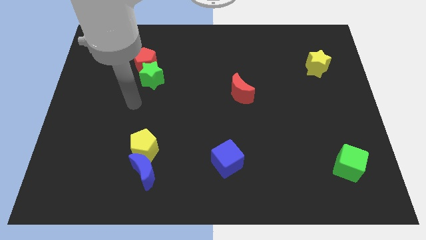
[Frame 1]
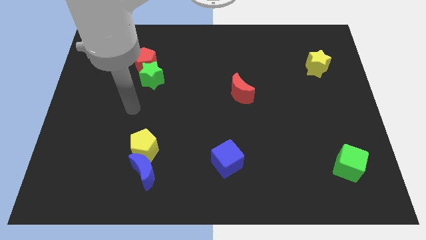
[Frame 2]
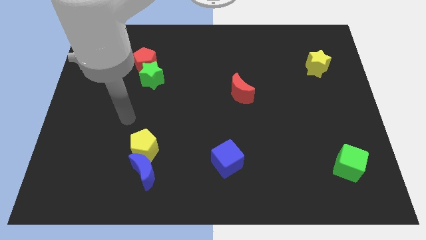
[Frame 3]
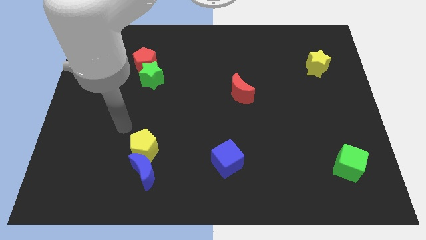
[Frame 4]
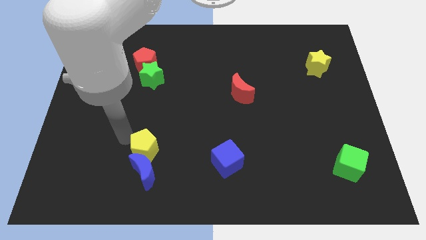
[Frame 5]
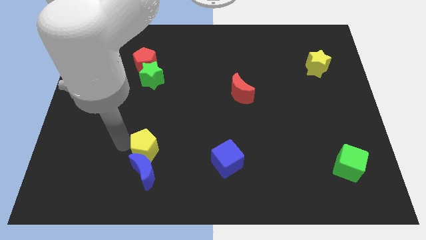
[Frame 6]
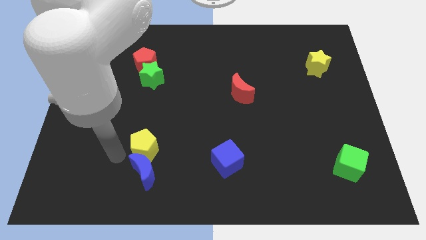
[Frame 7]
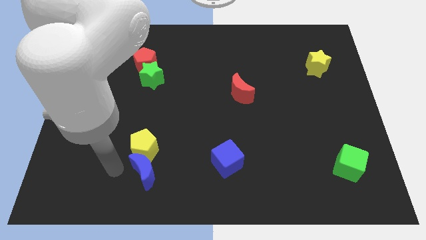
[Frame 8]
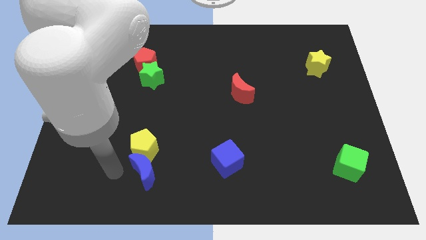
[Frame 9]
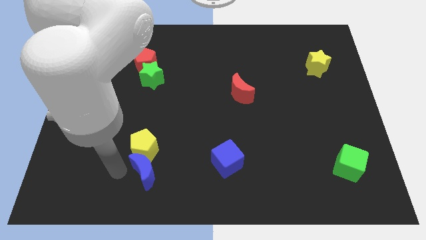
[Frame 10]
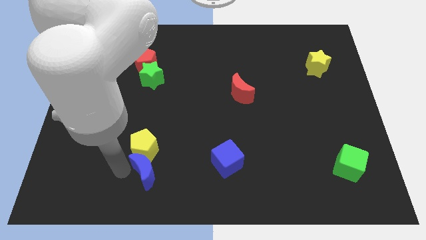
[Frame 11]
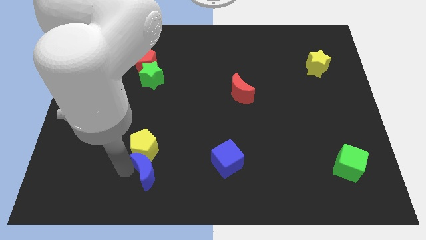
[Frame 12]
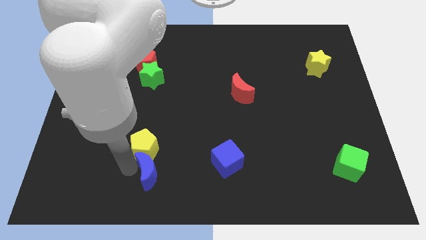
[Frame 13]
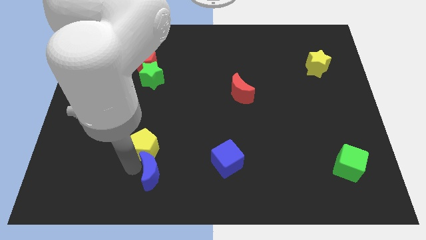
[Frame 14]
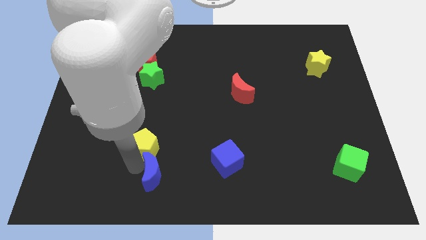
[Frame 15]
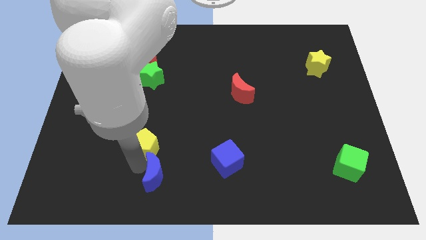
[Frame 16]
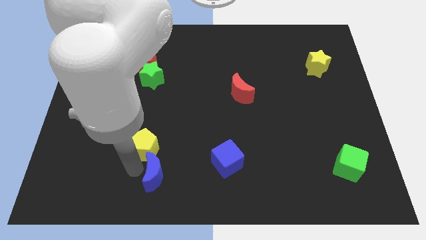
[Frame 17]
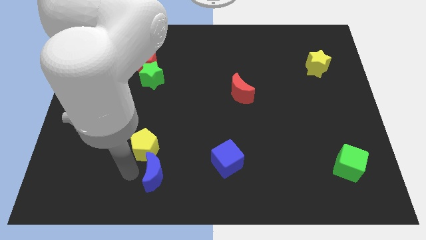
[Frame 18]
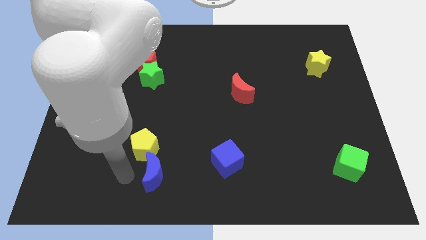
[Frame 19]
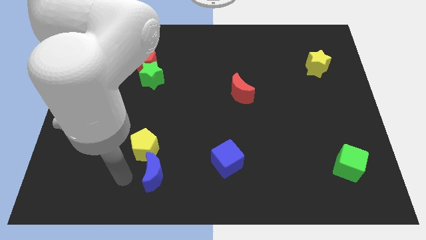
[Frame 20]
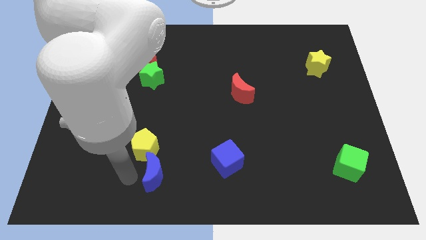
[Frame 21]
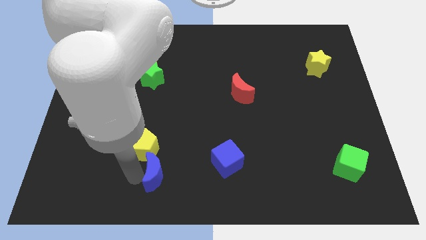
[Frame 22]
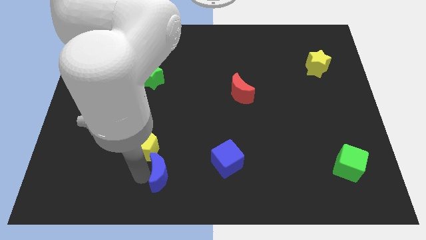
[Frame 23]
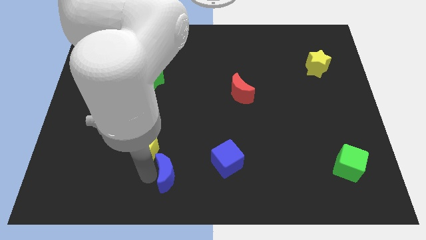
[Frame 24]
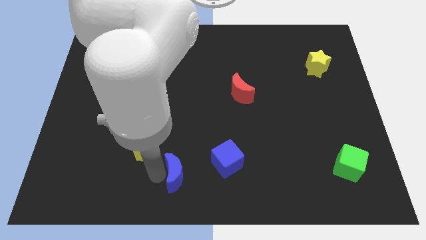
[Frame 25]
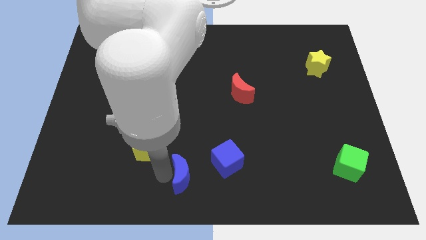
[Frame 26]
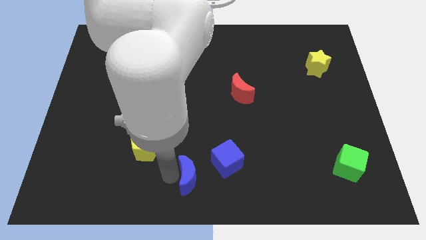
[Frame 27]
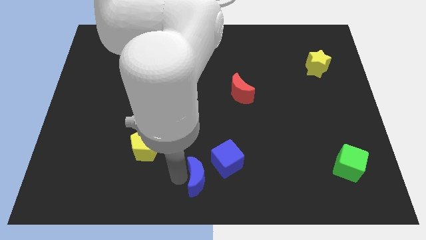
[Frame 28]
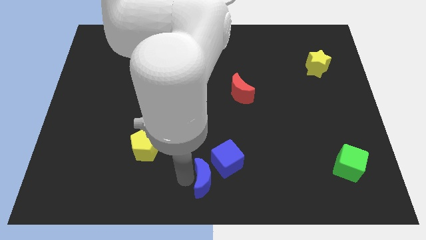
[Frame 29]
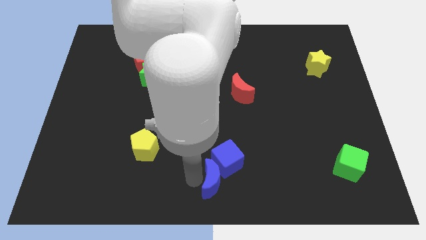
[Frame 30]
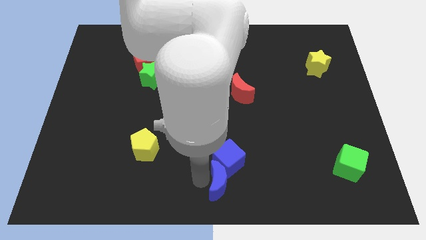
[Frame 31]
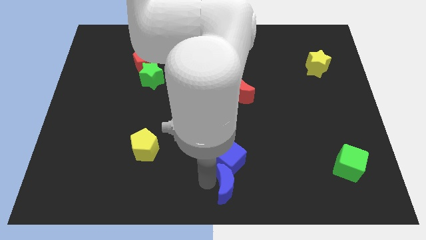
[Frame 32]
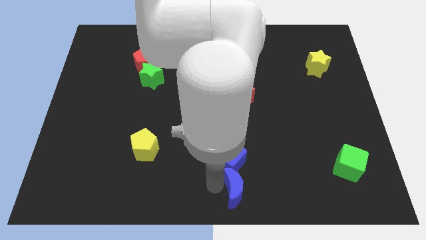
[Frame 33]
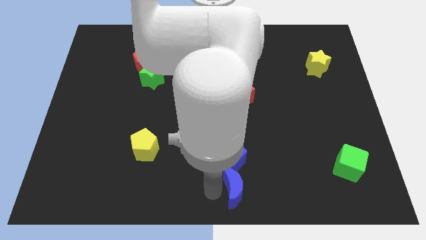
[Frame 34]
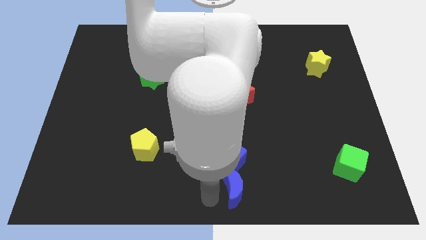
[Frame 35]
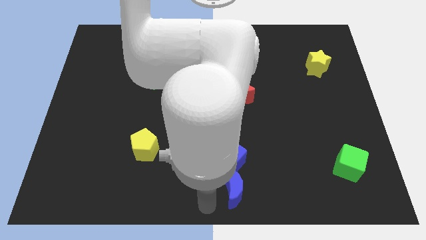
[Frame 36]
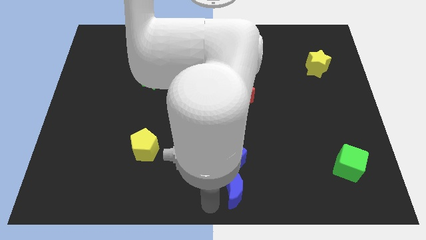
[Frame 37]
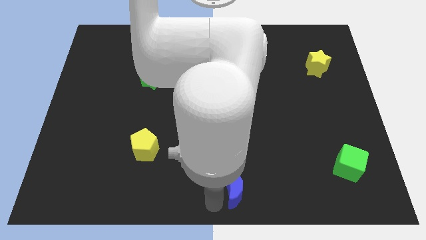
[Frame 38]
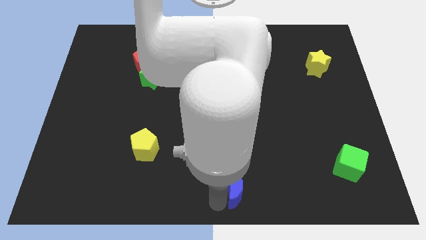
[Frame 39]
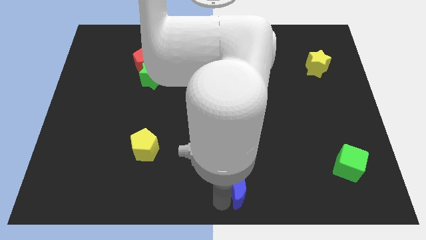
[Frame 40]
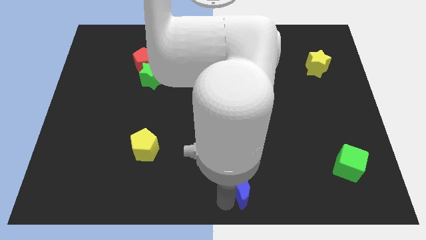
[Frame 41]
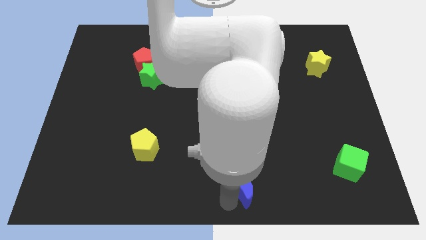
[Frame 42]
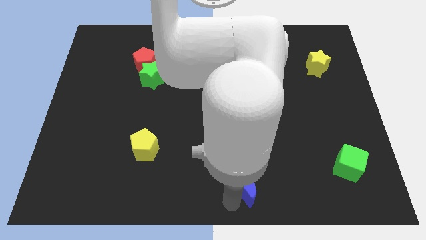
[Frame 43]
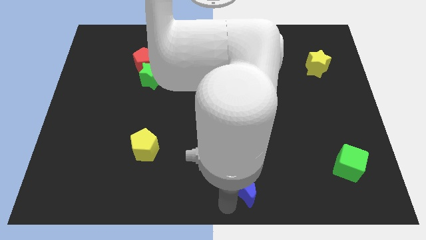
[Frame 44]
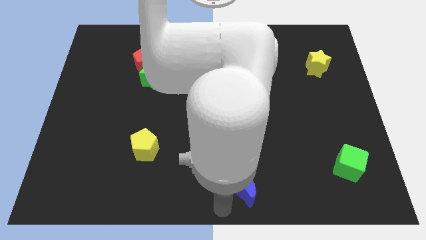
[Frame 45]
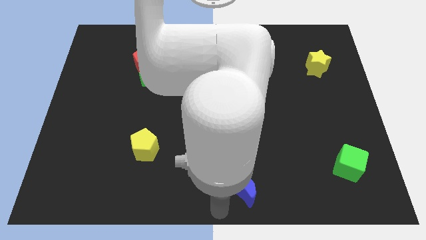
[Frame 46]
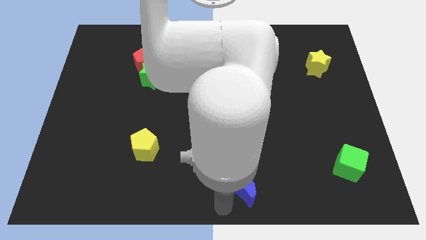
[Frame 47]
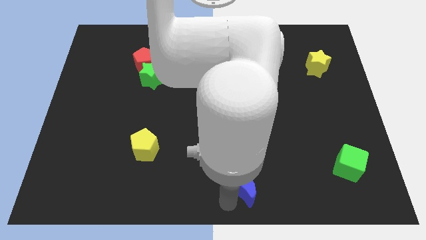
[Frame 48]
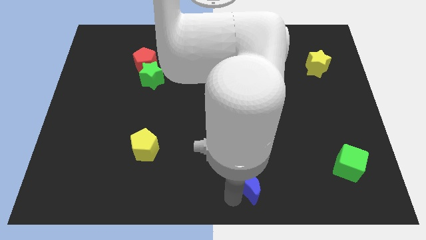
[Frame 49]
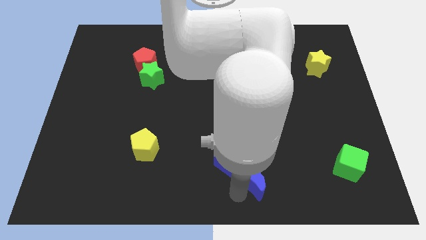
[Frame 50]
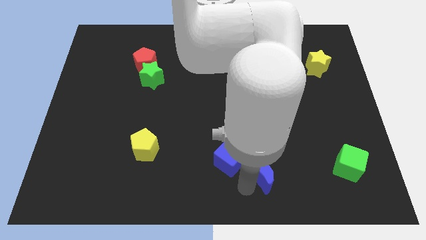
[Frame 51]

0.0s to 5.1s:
move the blue moon right of the blue cube

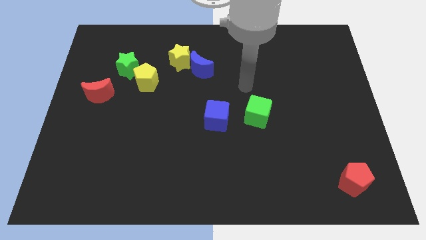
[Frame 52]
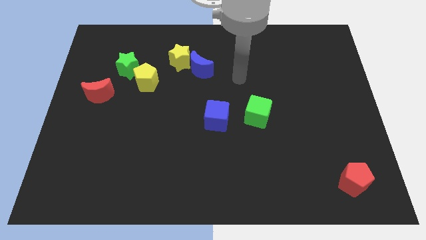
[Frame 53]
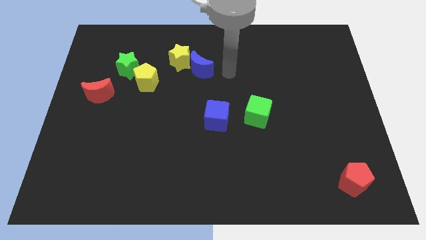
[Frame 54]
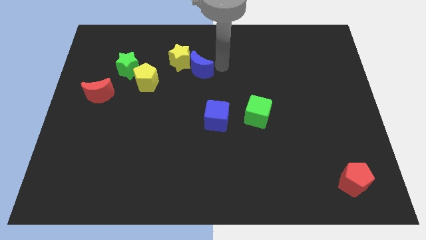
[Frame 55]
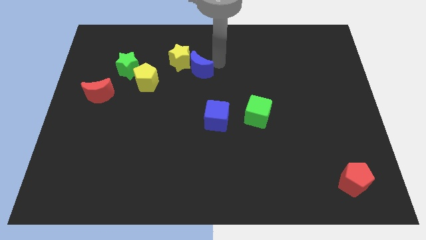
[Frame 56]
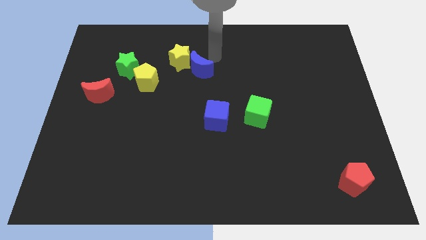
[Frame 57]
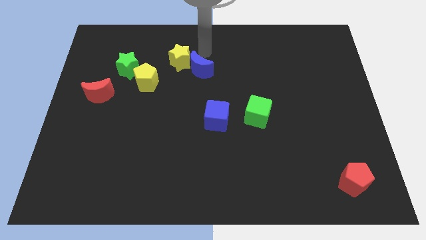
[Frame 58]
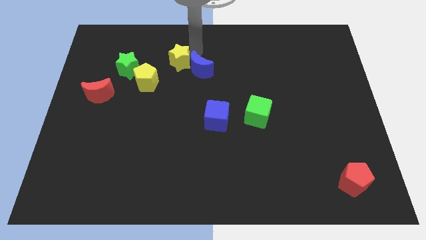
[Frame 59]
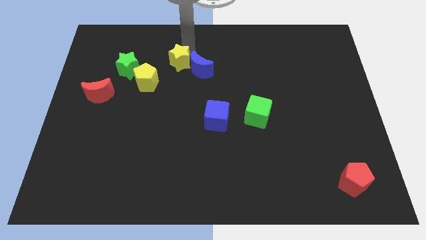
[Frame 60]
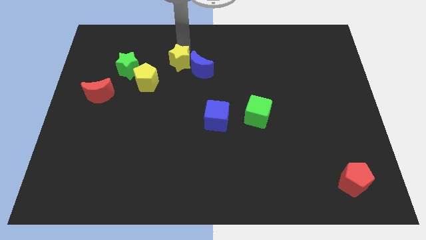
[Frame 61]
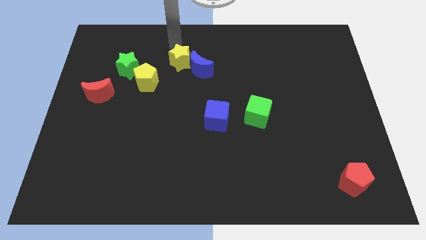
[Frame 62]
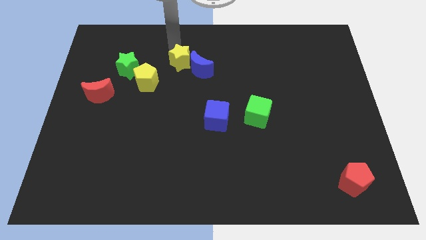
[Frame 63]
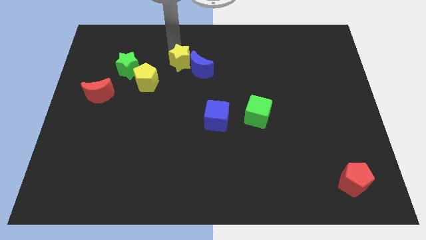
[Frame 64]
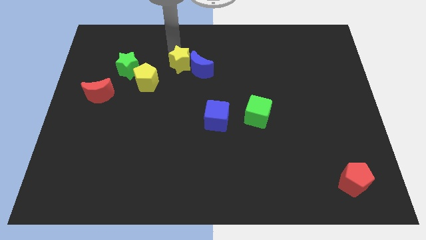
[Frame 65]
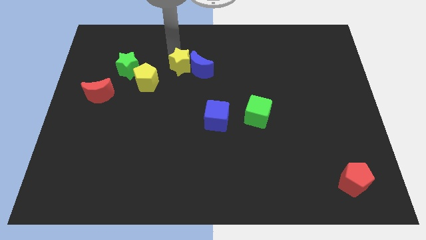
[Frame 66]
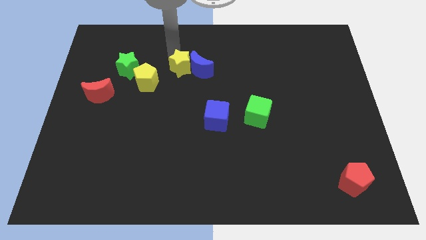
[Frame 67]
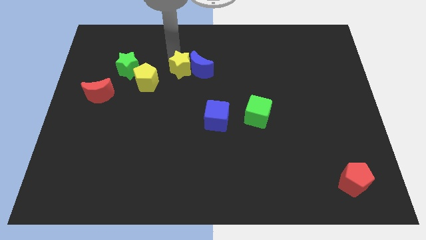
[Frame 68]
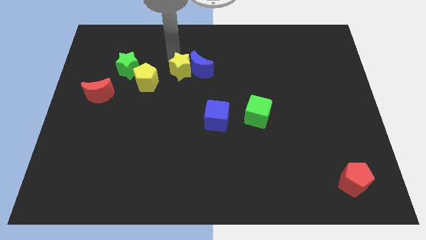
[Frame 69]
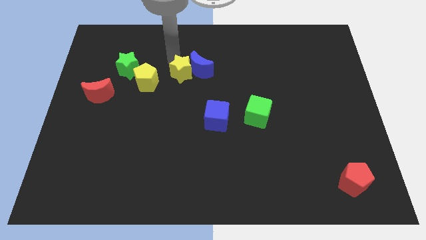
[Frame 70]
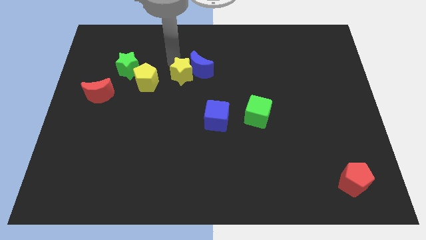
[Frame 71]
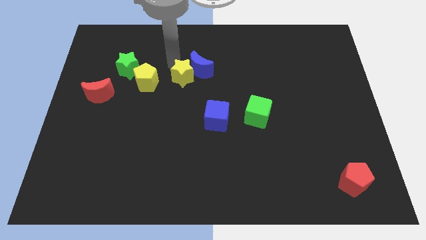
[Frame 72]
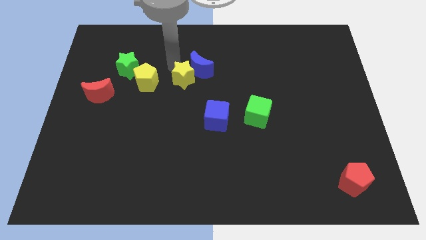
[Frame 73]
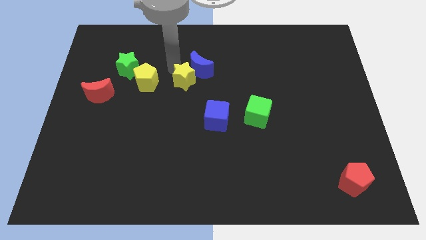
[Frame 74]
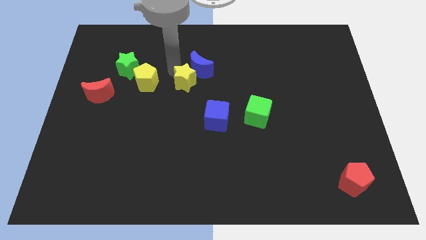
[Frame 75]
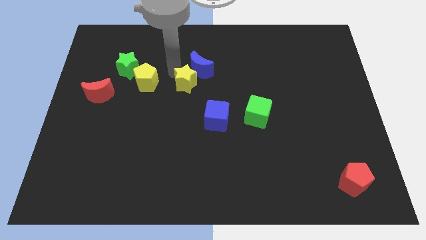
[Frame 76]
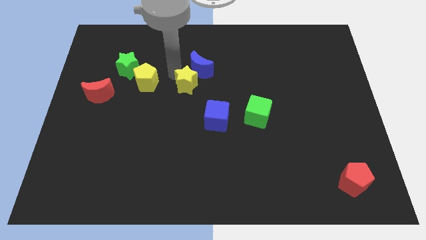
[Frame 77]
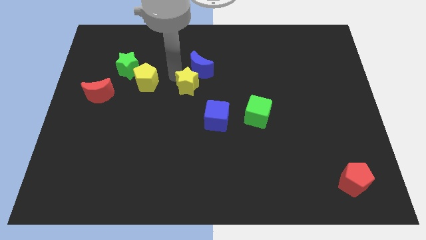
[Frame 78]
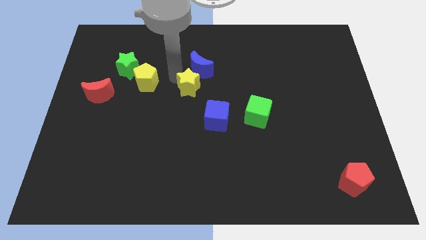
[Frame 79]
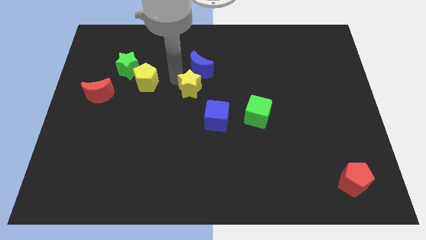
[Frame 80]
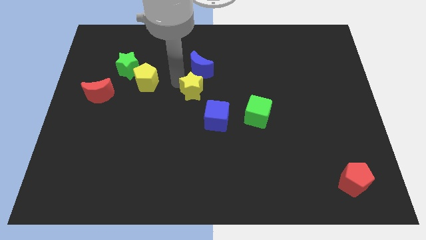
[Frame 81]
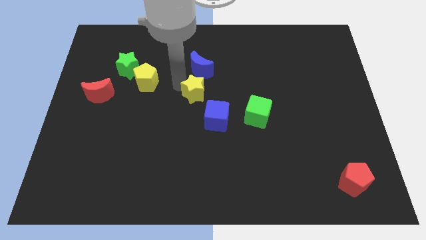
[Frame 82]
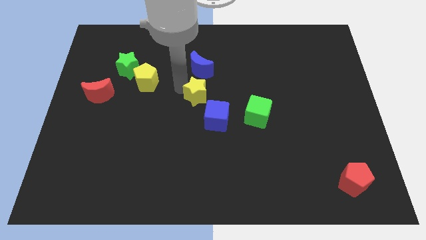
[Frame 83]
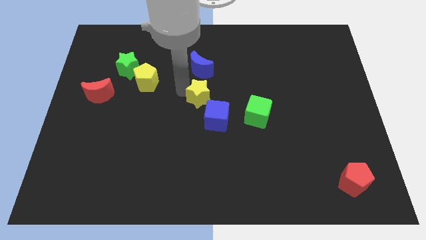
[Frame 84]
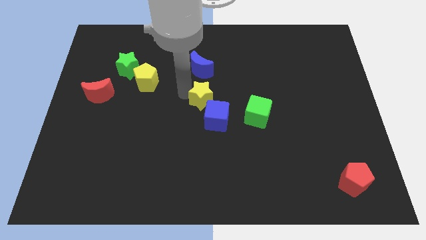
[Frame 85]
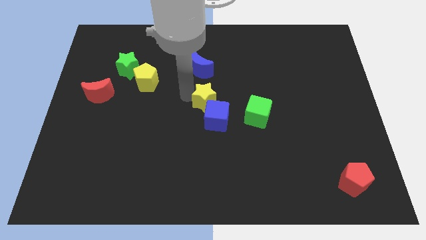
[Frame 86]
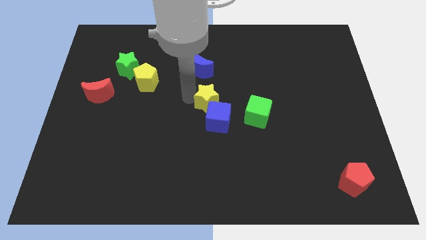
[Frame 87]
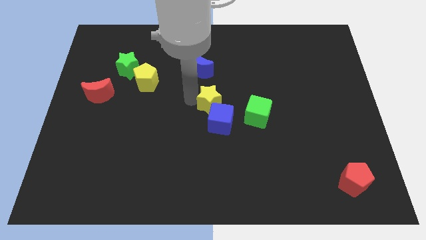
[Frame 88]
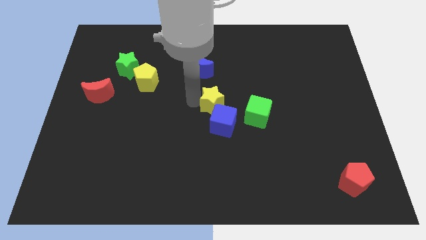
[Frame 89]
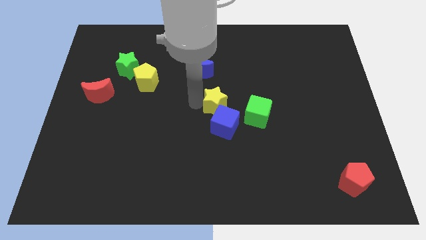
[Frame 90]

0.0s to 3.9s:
put the yellow star to the top left side of the green cube
